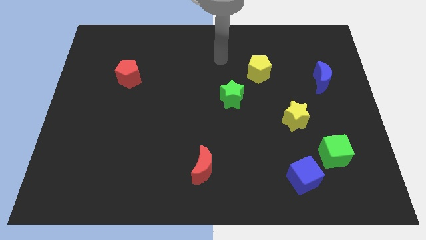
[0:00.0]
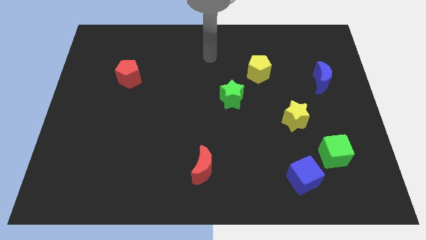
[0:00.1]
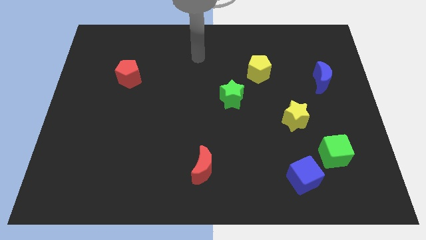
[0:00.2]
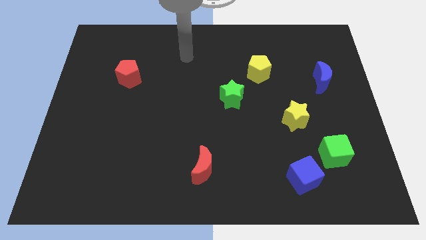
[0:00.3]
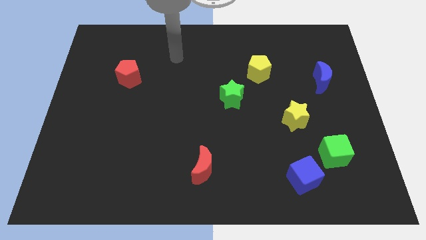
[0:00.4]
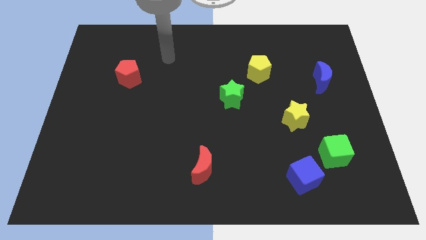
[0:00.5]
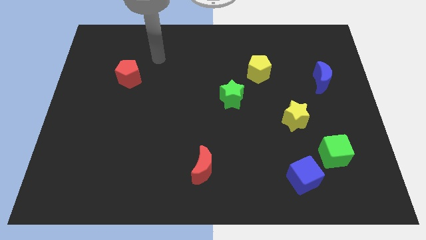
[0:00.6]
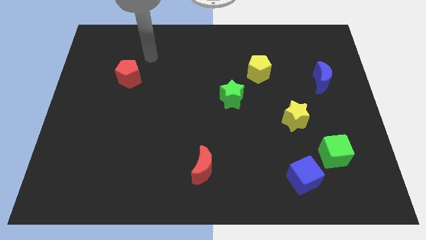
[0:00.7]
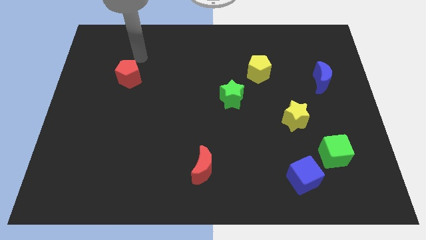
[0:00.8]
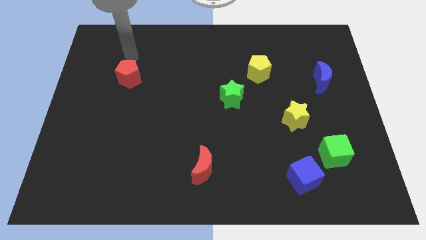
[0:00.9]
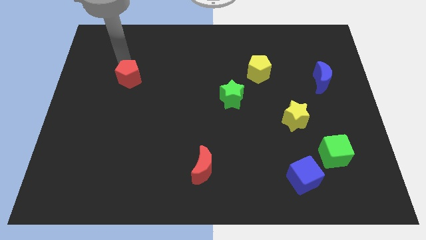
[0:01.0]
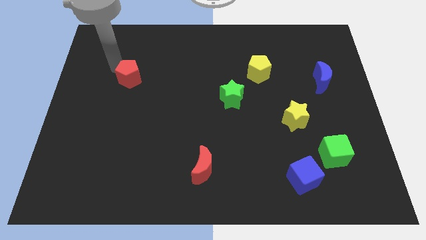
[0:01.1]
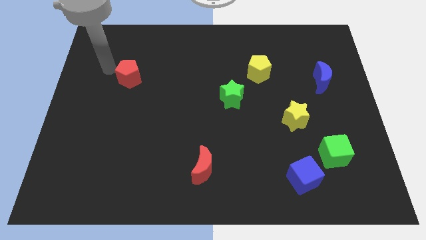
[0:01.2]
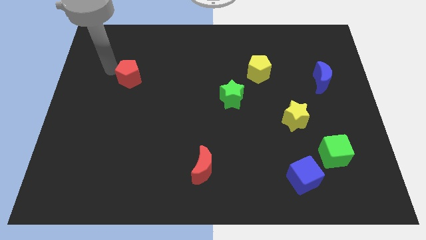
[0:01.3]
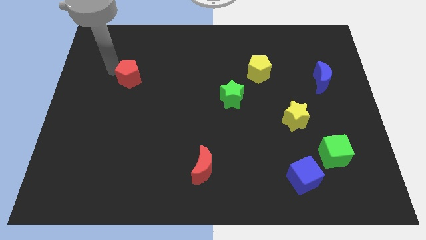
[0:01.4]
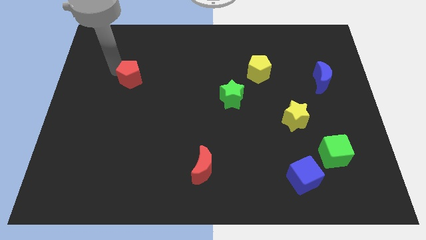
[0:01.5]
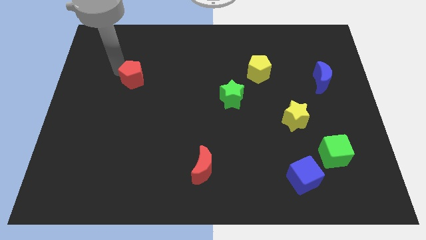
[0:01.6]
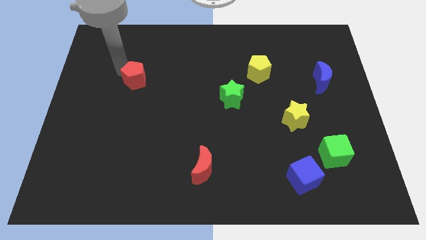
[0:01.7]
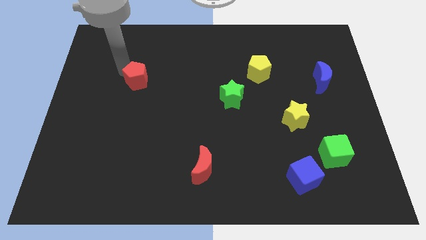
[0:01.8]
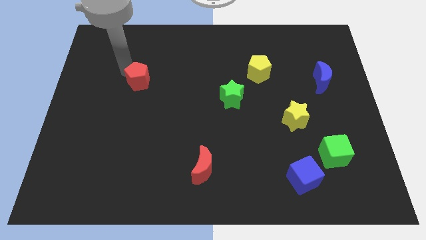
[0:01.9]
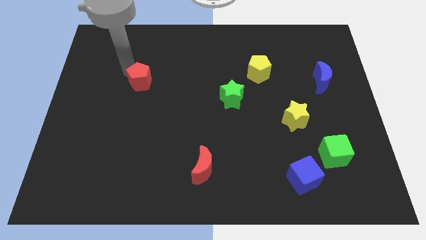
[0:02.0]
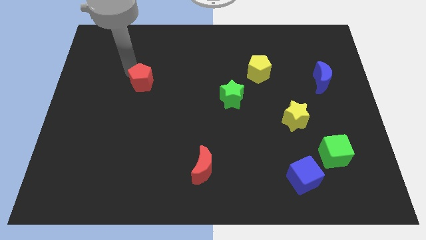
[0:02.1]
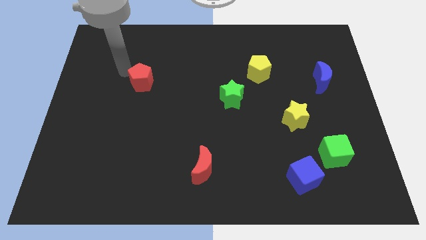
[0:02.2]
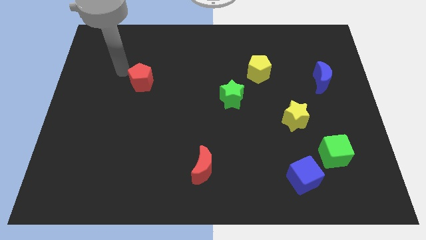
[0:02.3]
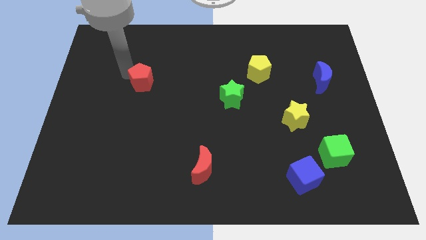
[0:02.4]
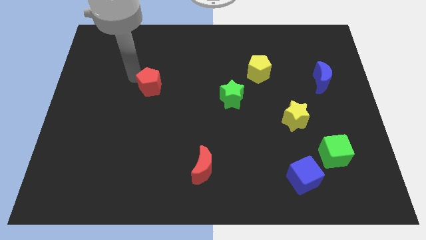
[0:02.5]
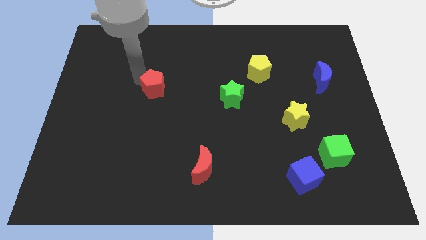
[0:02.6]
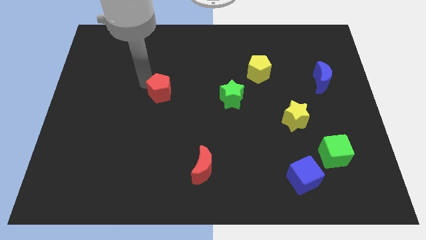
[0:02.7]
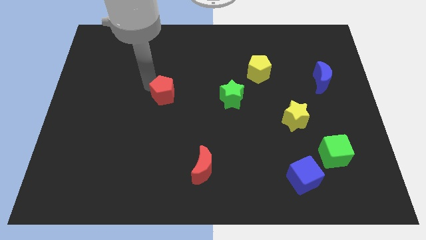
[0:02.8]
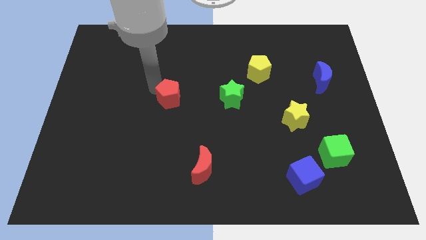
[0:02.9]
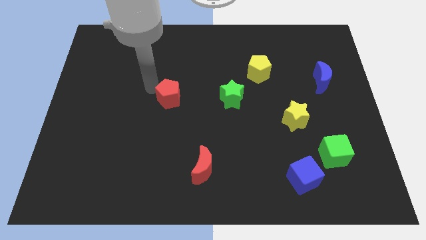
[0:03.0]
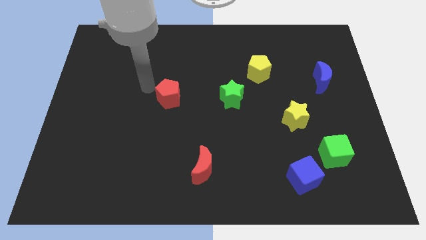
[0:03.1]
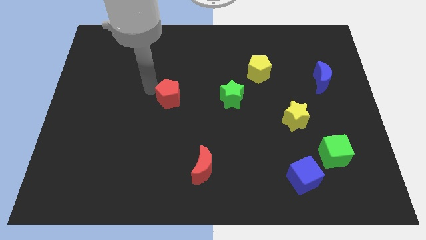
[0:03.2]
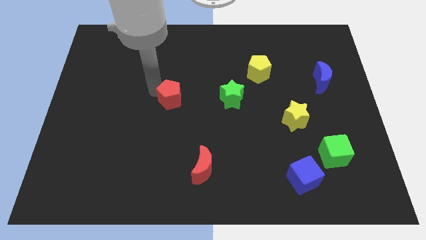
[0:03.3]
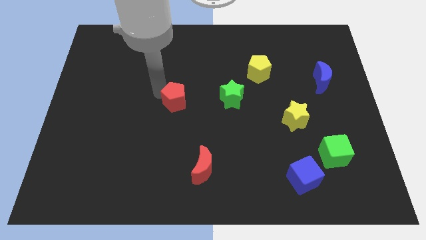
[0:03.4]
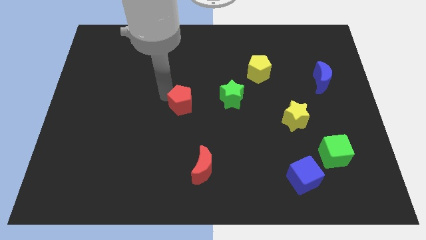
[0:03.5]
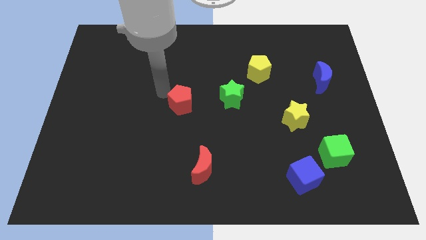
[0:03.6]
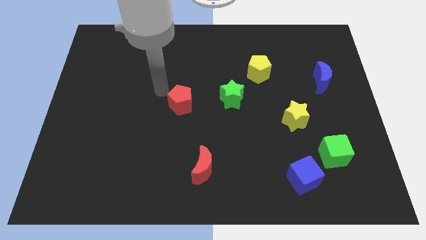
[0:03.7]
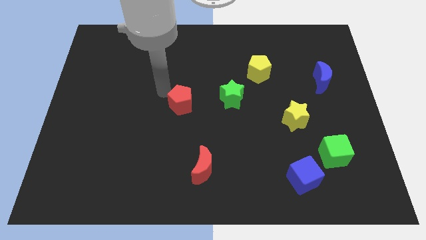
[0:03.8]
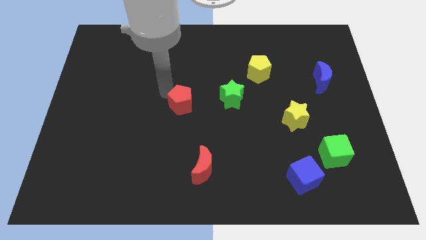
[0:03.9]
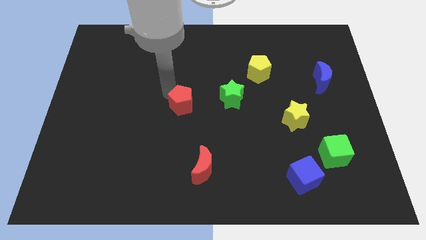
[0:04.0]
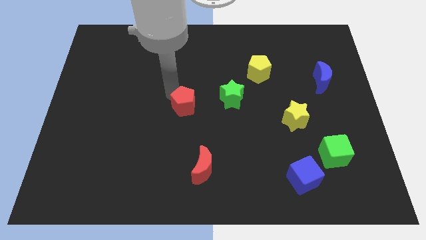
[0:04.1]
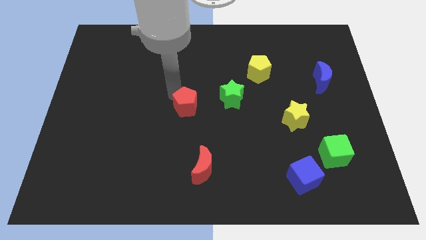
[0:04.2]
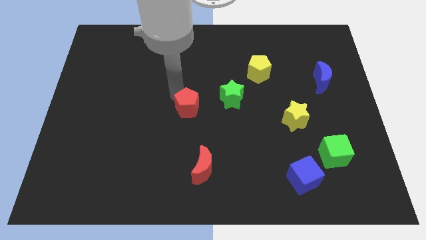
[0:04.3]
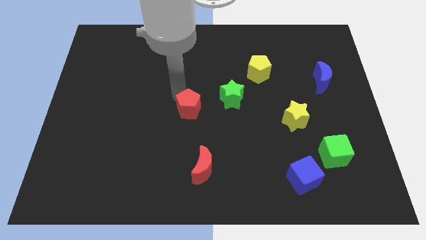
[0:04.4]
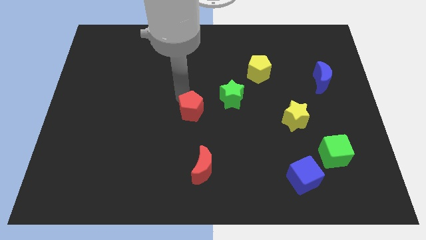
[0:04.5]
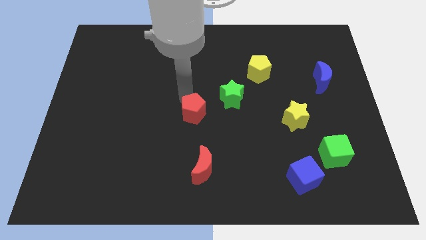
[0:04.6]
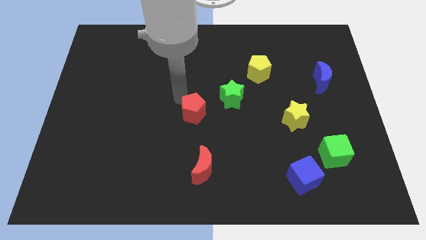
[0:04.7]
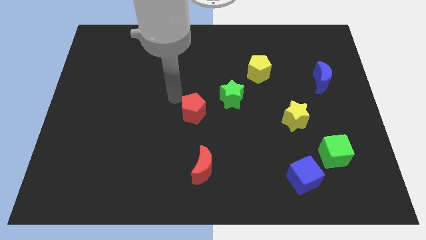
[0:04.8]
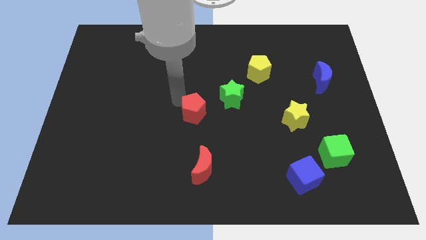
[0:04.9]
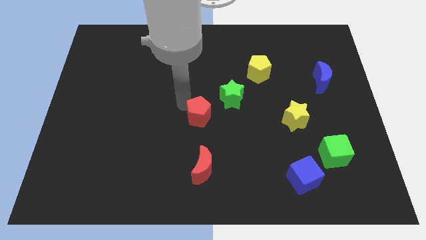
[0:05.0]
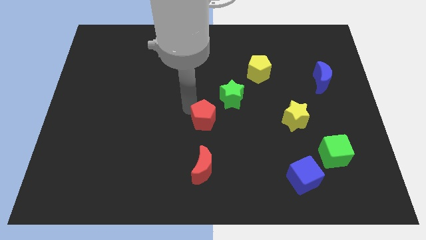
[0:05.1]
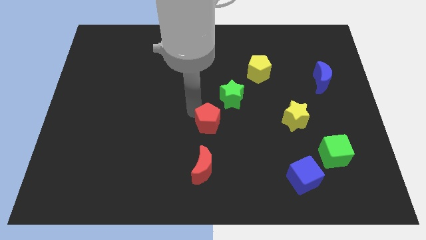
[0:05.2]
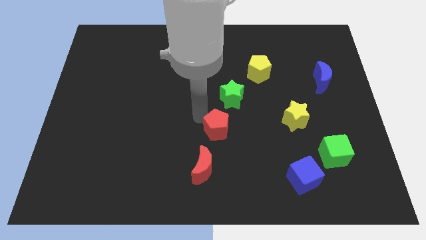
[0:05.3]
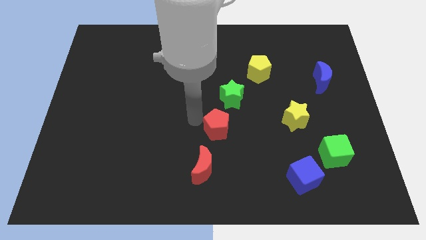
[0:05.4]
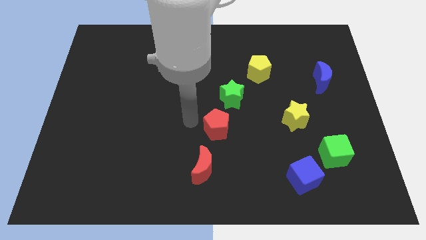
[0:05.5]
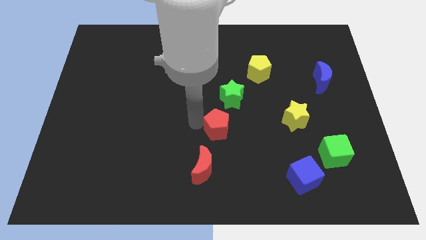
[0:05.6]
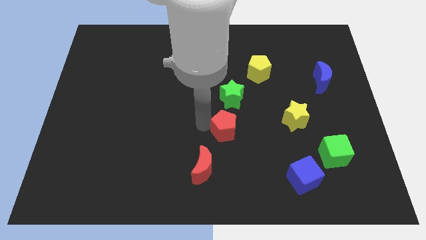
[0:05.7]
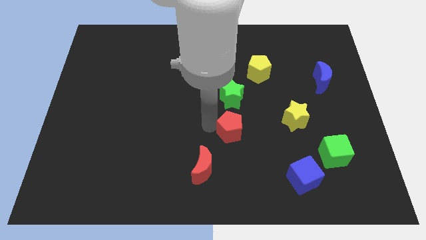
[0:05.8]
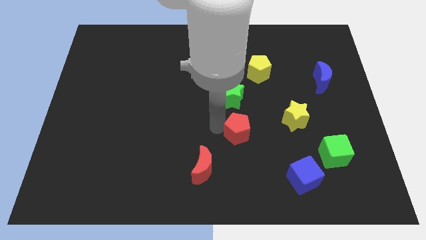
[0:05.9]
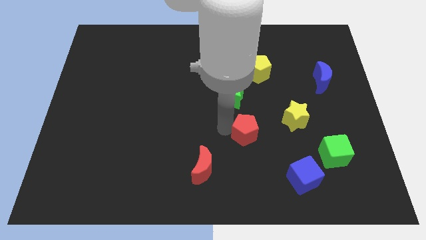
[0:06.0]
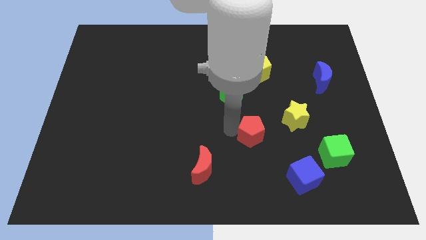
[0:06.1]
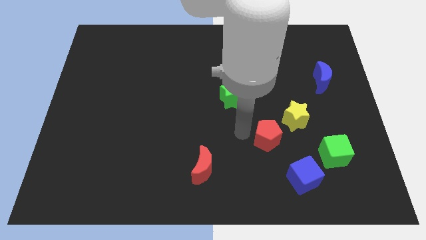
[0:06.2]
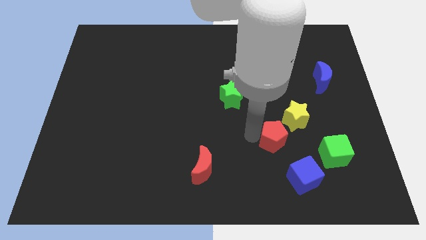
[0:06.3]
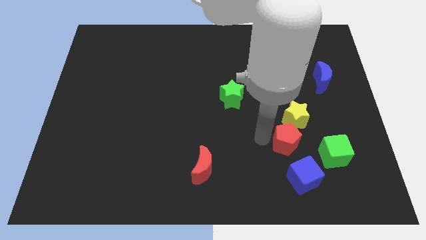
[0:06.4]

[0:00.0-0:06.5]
slide the red pentagon diagonally up and to the left of the green cube
